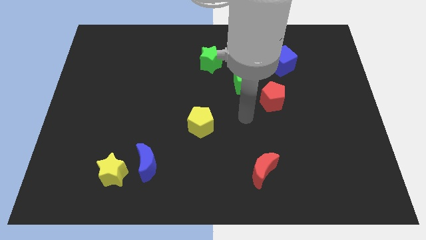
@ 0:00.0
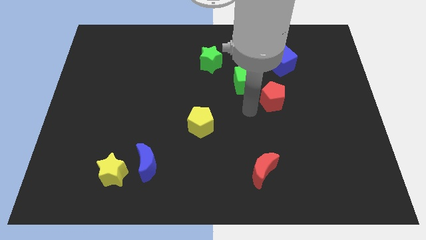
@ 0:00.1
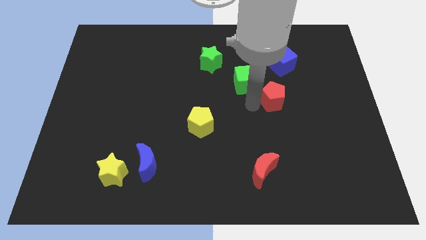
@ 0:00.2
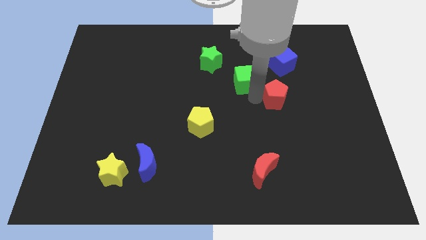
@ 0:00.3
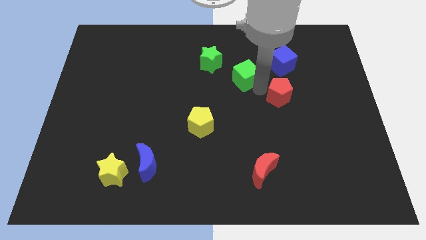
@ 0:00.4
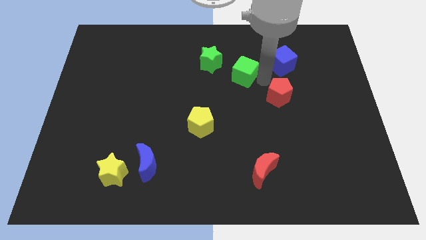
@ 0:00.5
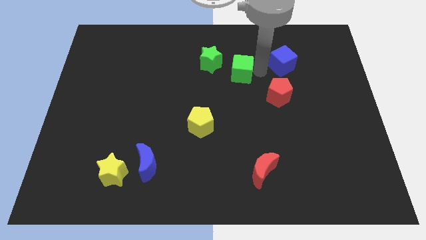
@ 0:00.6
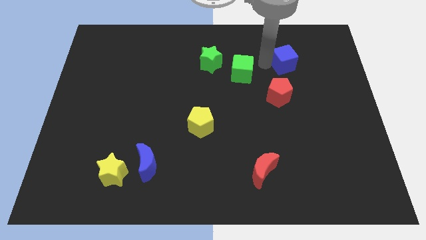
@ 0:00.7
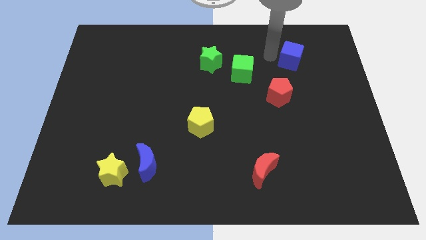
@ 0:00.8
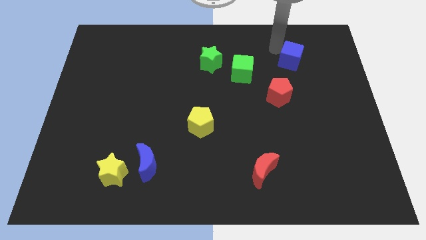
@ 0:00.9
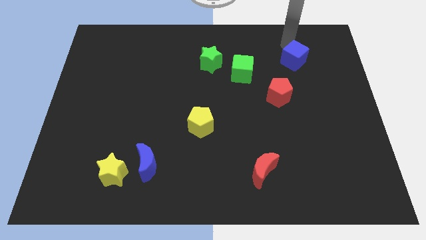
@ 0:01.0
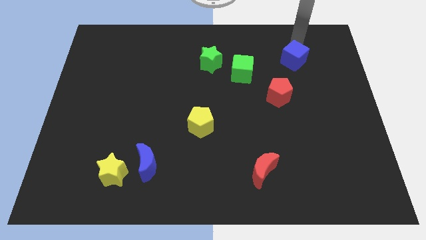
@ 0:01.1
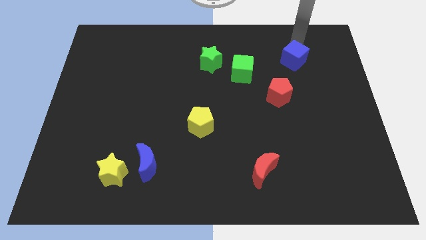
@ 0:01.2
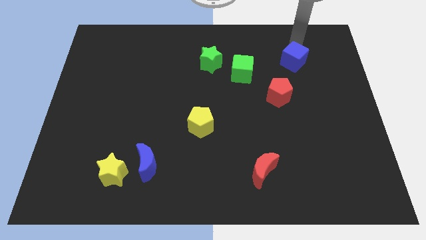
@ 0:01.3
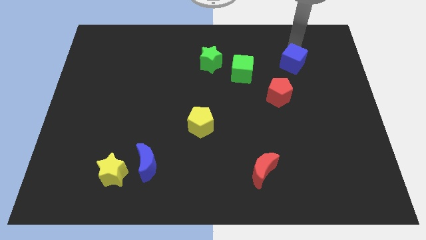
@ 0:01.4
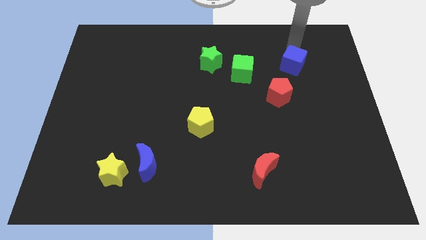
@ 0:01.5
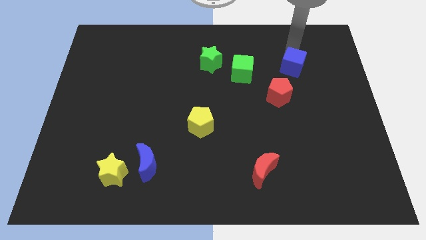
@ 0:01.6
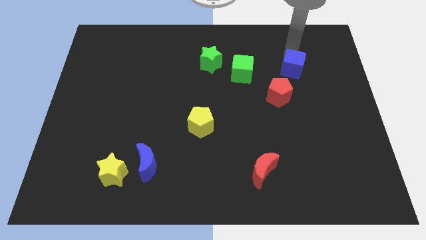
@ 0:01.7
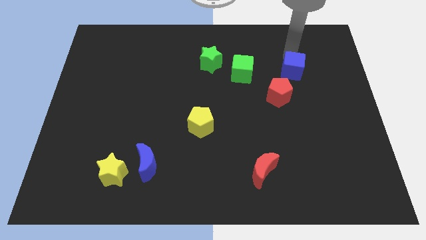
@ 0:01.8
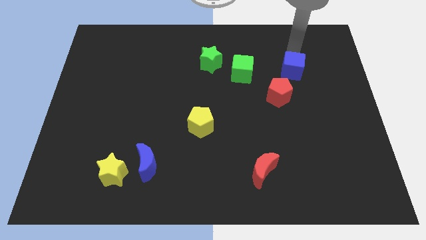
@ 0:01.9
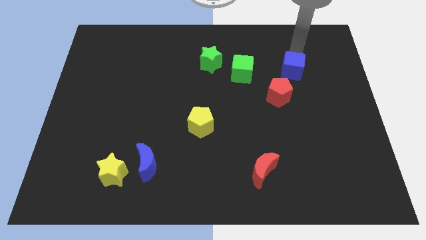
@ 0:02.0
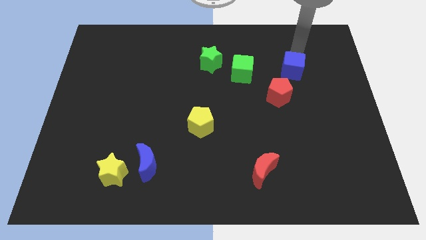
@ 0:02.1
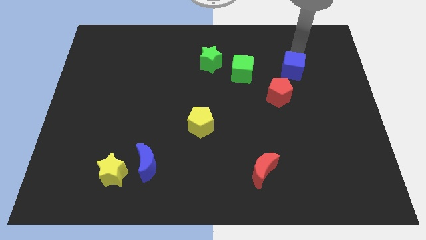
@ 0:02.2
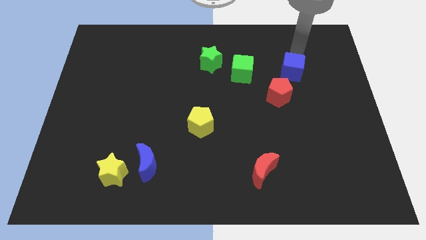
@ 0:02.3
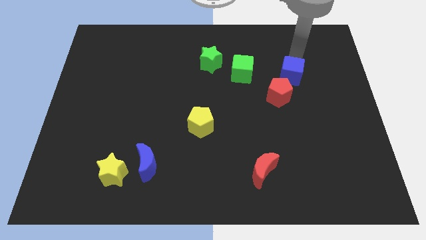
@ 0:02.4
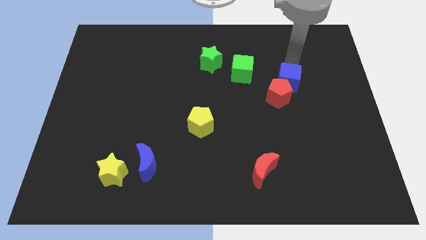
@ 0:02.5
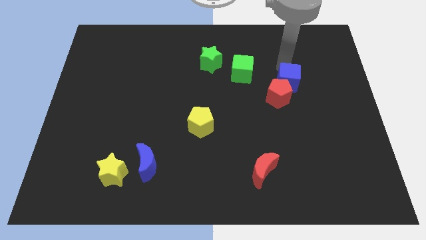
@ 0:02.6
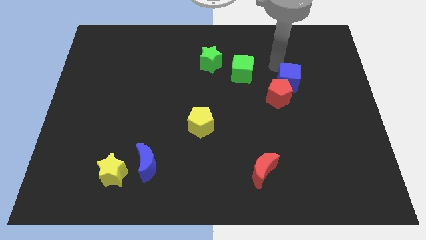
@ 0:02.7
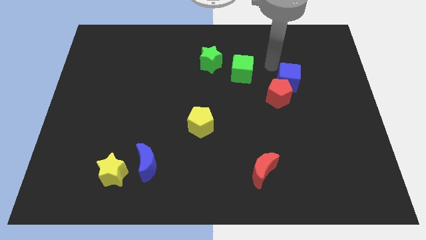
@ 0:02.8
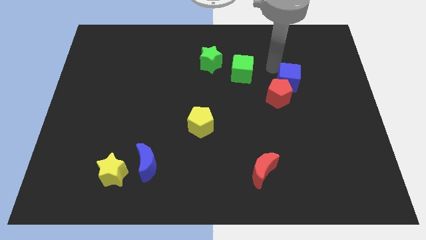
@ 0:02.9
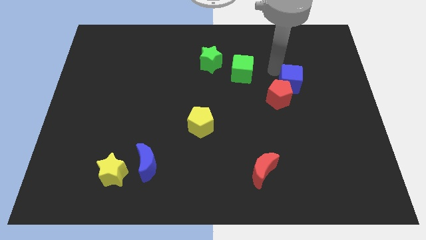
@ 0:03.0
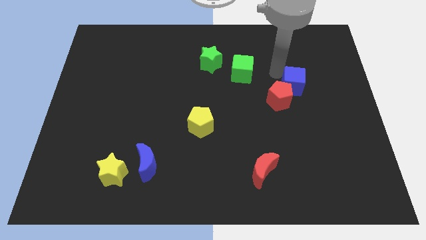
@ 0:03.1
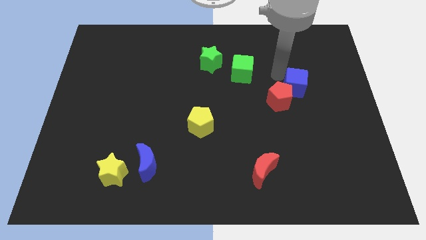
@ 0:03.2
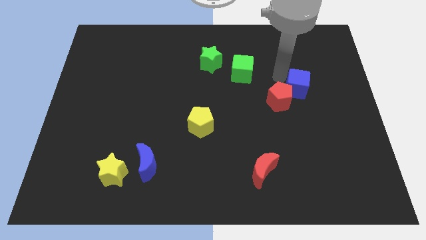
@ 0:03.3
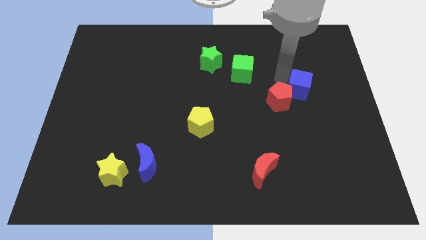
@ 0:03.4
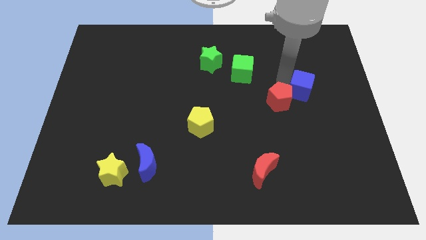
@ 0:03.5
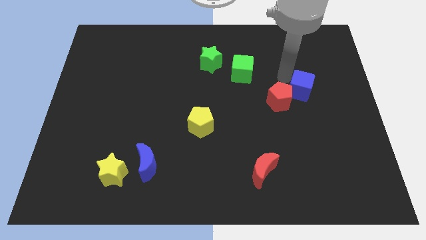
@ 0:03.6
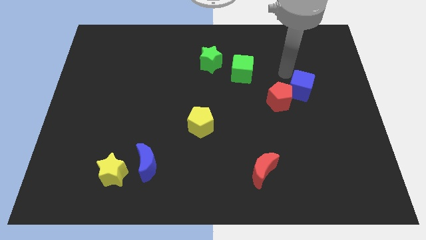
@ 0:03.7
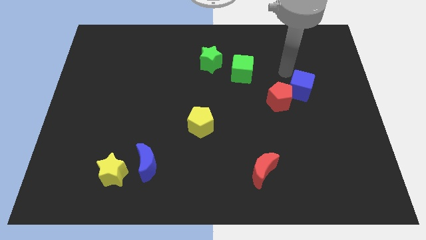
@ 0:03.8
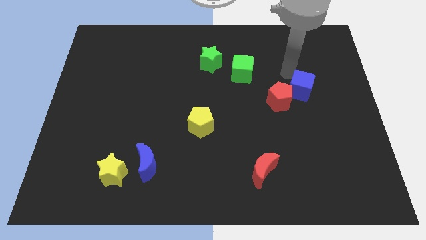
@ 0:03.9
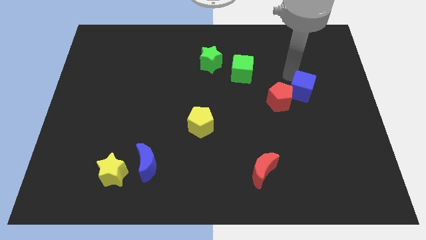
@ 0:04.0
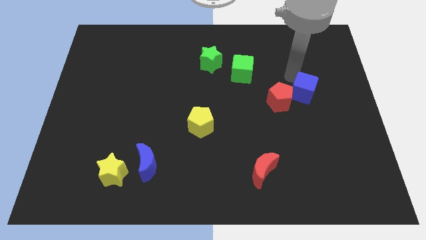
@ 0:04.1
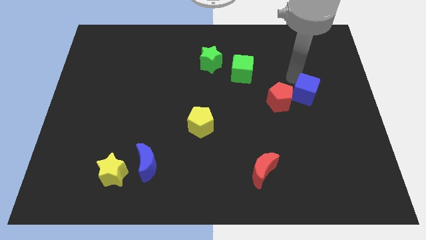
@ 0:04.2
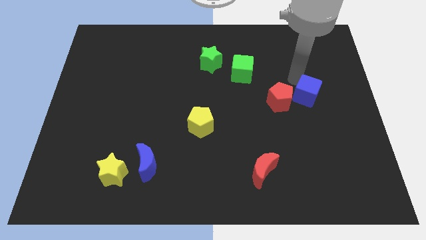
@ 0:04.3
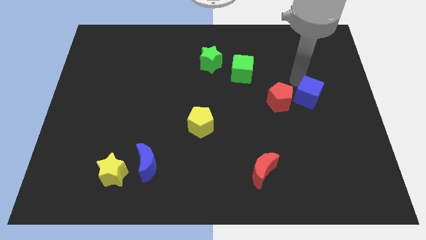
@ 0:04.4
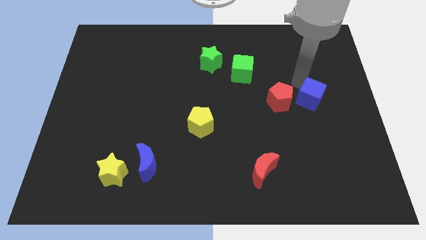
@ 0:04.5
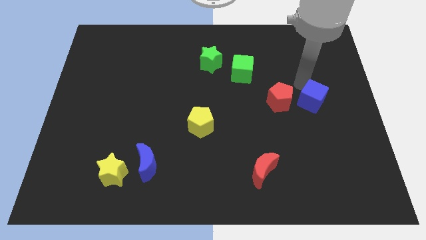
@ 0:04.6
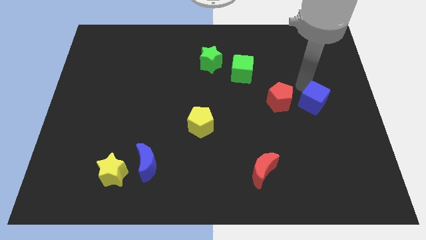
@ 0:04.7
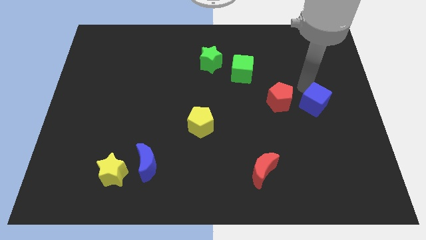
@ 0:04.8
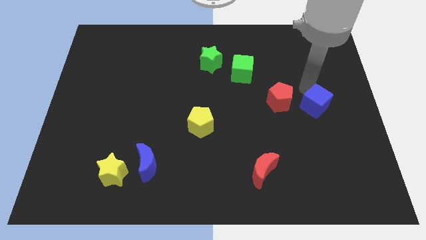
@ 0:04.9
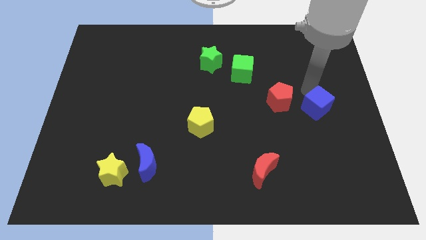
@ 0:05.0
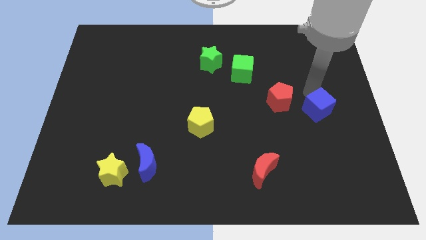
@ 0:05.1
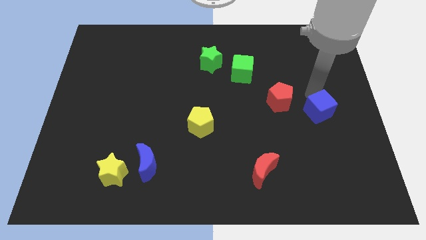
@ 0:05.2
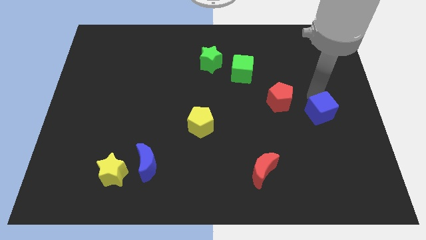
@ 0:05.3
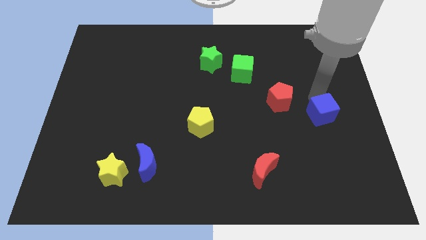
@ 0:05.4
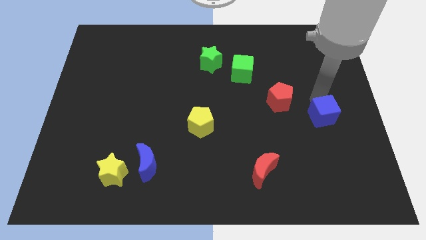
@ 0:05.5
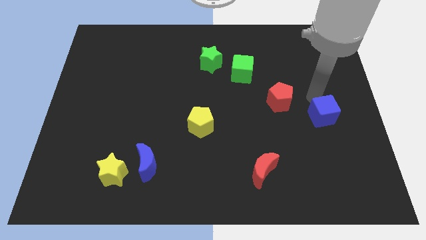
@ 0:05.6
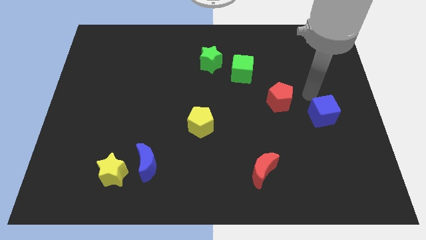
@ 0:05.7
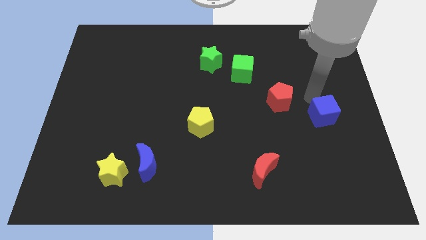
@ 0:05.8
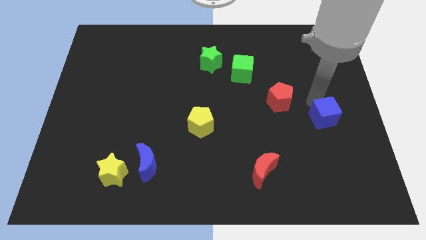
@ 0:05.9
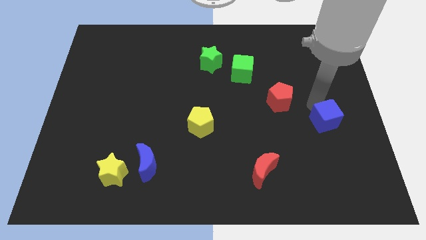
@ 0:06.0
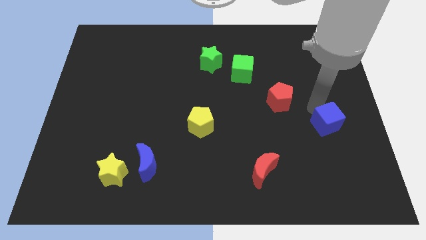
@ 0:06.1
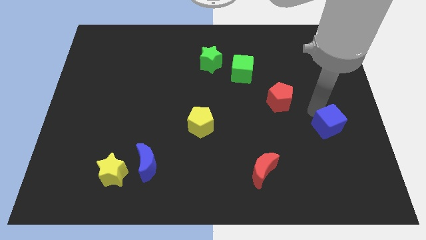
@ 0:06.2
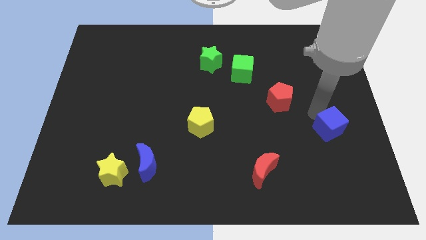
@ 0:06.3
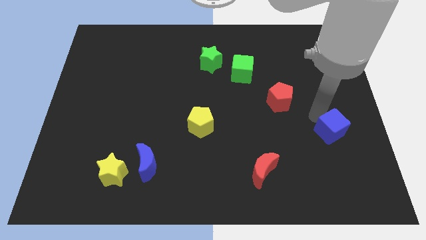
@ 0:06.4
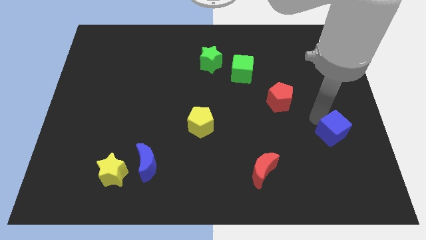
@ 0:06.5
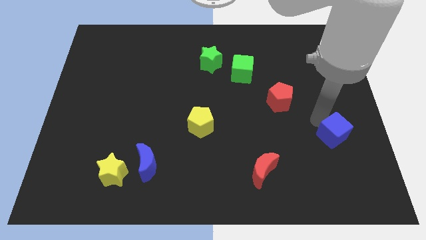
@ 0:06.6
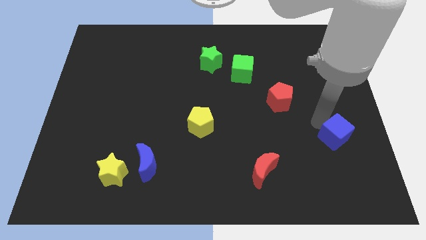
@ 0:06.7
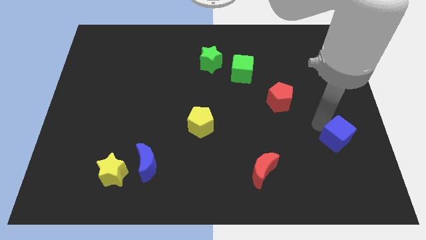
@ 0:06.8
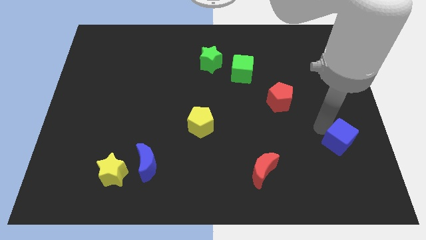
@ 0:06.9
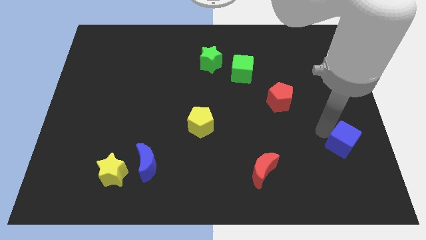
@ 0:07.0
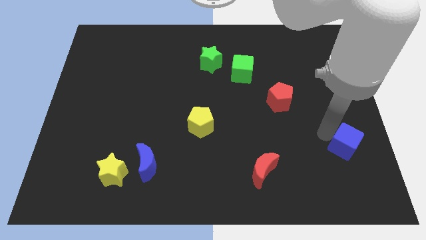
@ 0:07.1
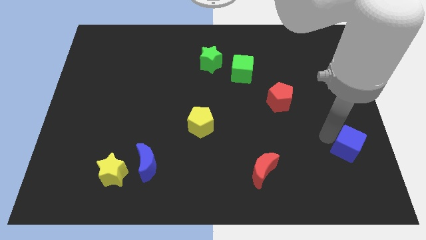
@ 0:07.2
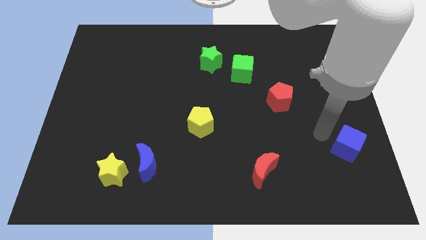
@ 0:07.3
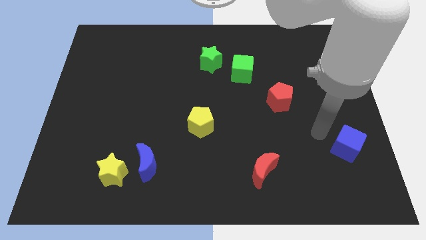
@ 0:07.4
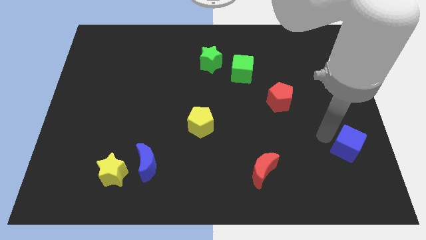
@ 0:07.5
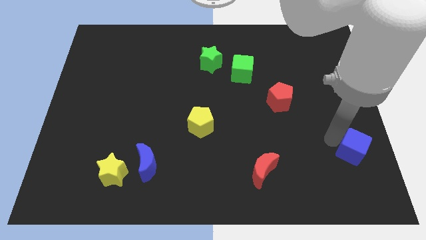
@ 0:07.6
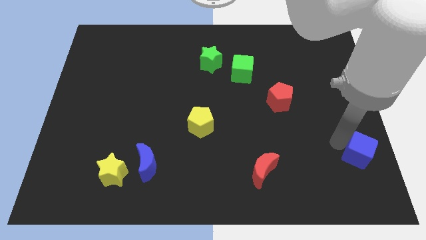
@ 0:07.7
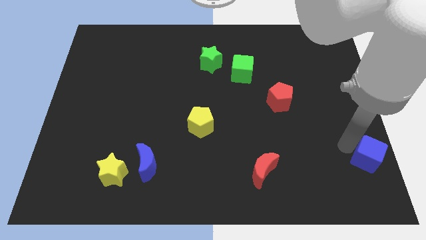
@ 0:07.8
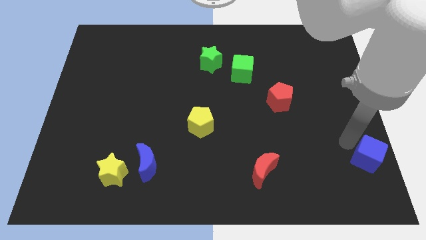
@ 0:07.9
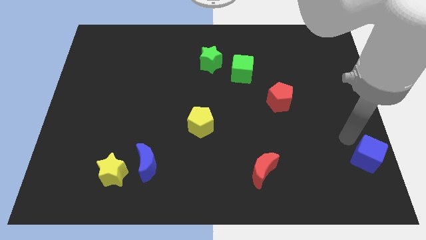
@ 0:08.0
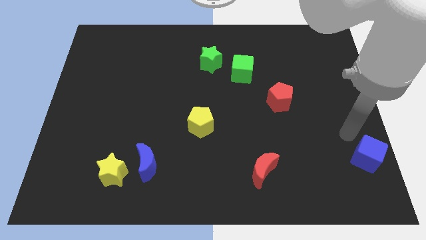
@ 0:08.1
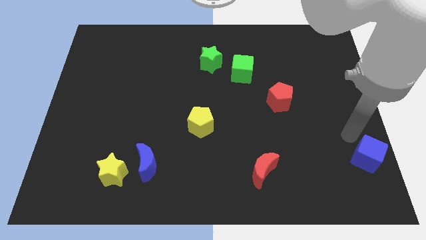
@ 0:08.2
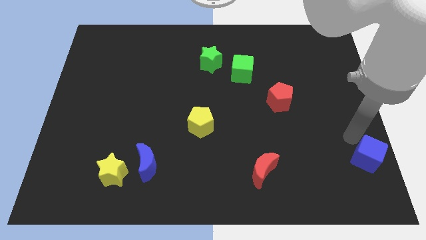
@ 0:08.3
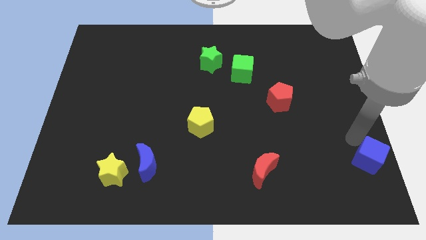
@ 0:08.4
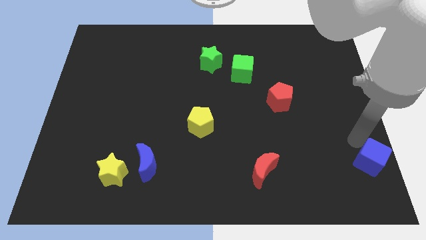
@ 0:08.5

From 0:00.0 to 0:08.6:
push the blue cube to the bottom right of the board
